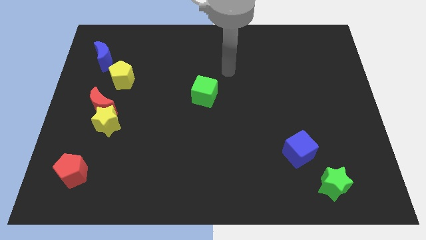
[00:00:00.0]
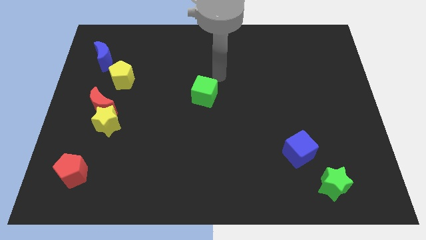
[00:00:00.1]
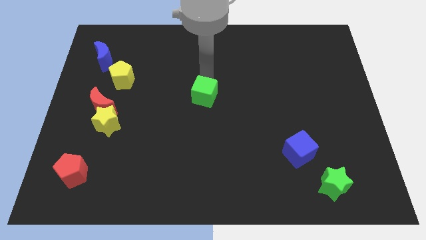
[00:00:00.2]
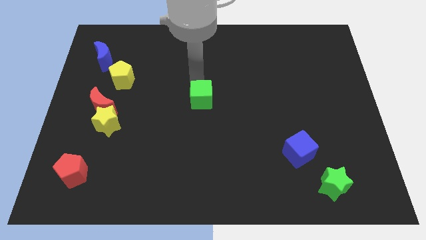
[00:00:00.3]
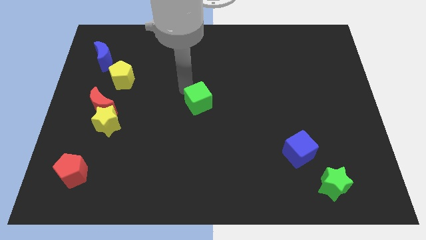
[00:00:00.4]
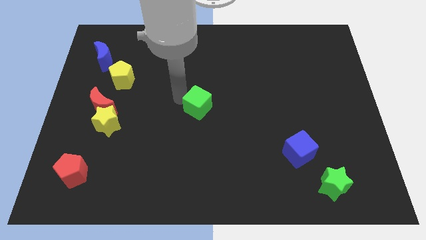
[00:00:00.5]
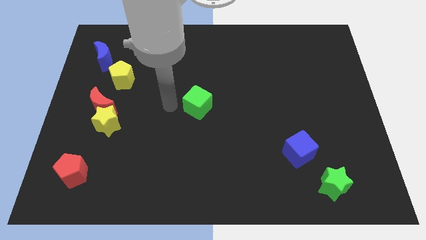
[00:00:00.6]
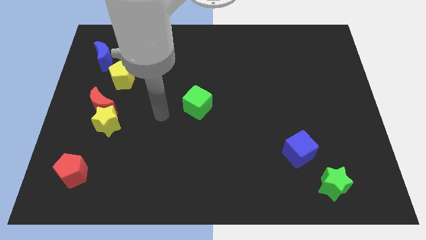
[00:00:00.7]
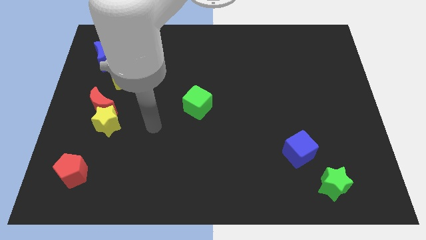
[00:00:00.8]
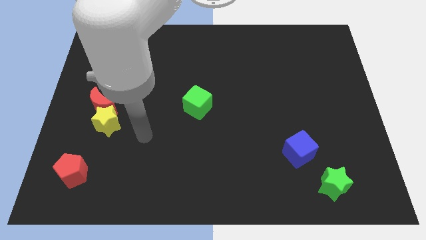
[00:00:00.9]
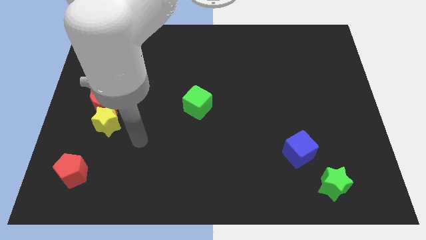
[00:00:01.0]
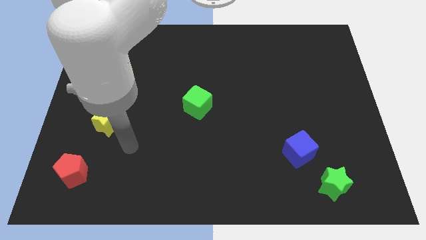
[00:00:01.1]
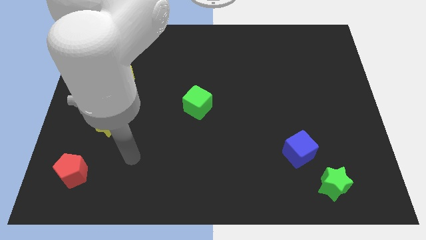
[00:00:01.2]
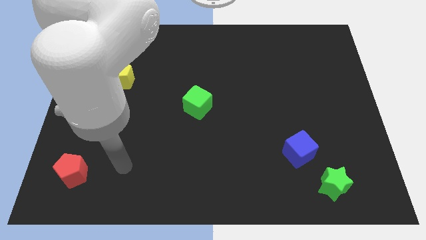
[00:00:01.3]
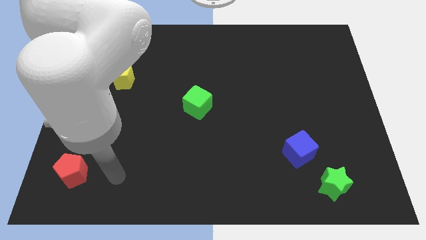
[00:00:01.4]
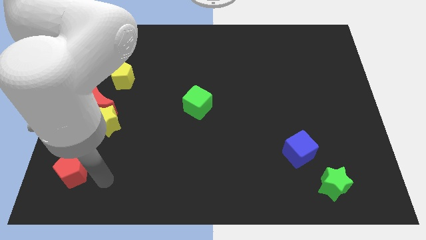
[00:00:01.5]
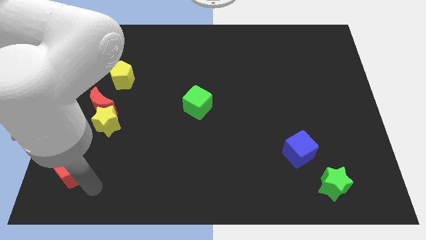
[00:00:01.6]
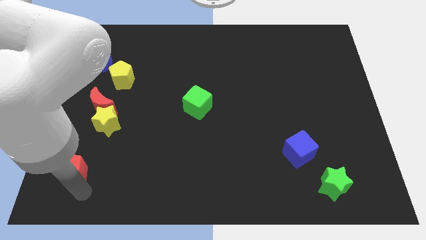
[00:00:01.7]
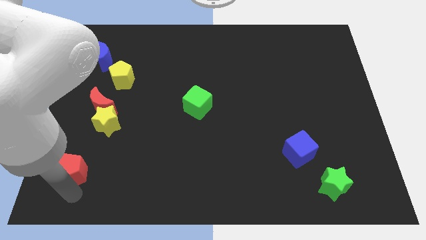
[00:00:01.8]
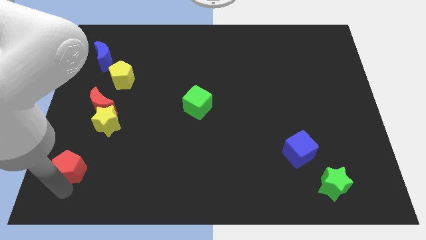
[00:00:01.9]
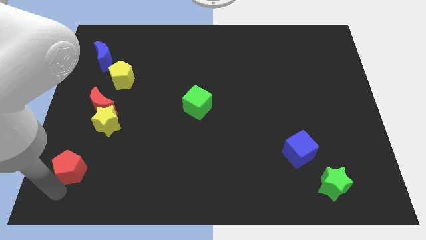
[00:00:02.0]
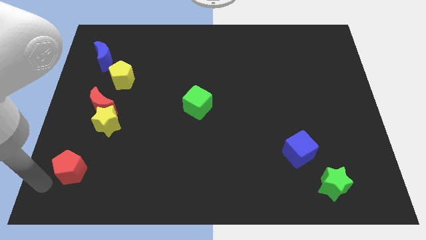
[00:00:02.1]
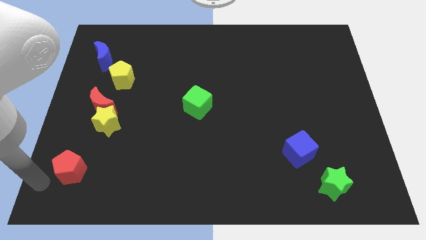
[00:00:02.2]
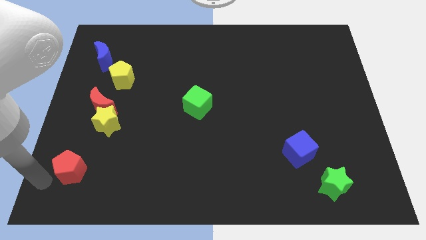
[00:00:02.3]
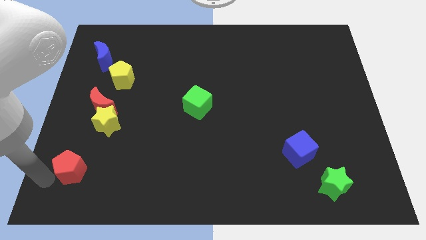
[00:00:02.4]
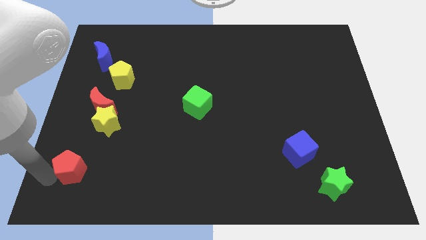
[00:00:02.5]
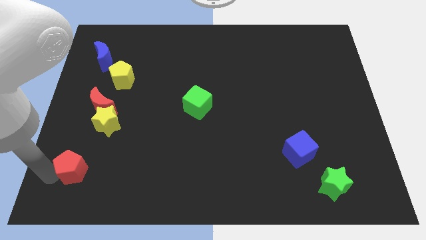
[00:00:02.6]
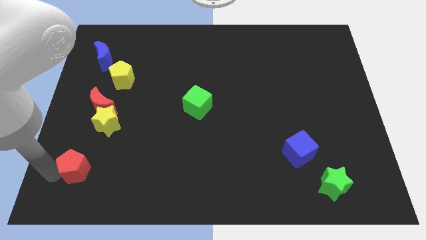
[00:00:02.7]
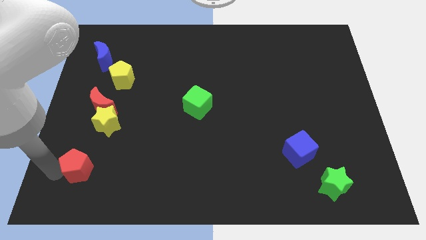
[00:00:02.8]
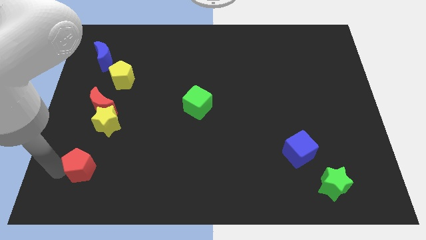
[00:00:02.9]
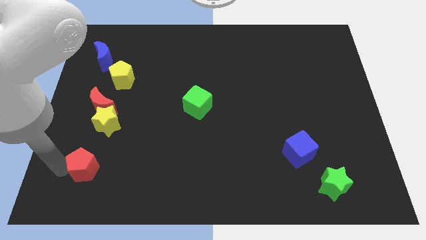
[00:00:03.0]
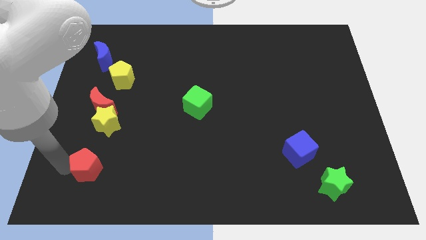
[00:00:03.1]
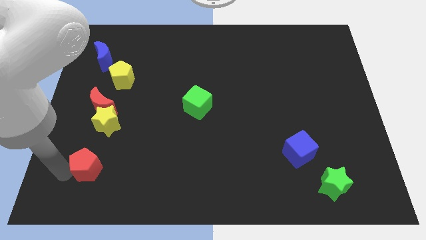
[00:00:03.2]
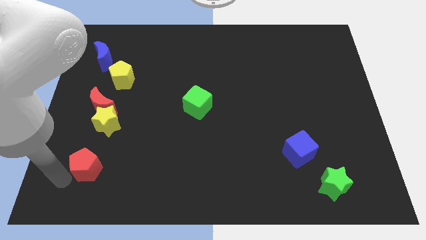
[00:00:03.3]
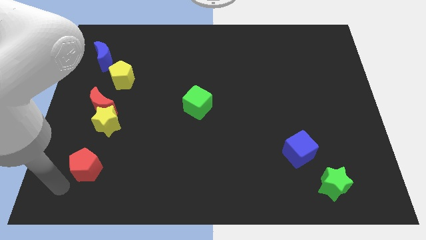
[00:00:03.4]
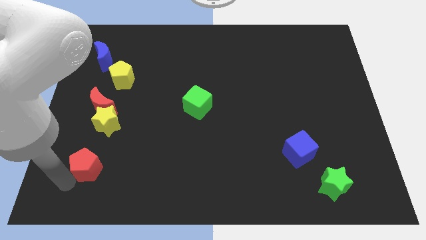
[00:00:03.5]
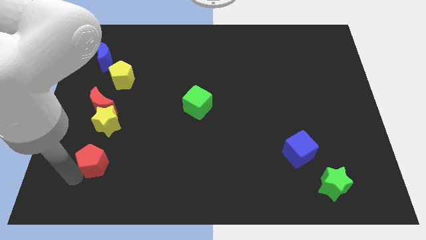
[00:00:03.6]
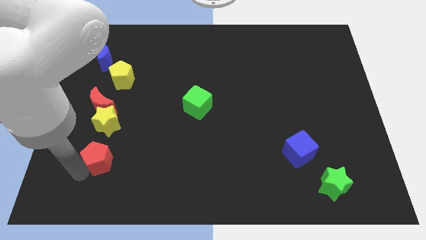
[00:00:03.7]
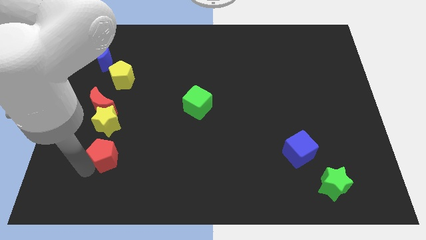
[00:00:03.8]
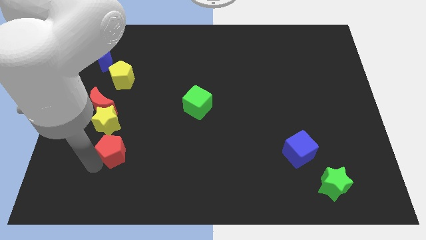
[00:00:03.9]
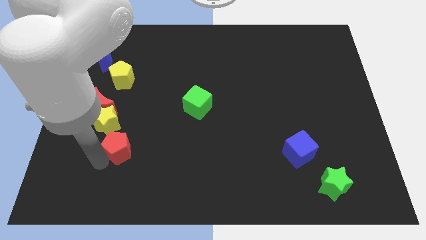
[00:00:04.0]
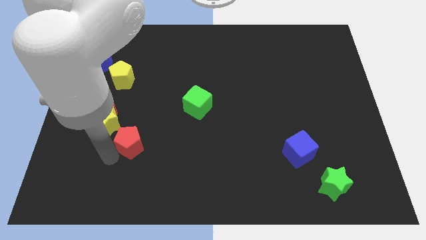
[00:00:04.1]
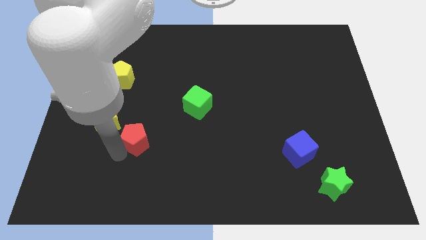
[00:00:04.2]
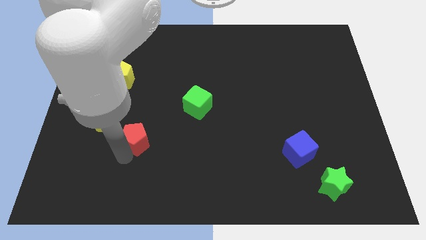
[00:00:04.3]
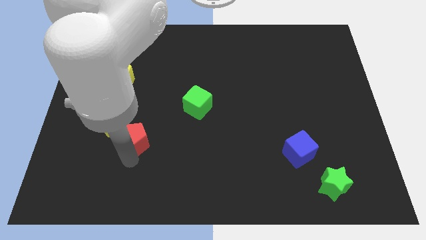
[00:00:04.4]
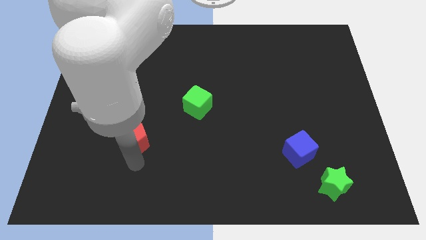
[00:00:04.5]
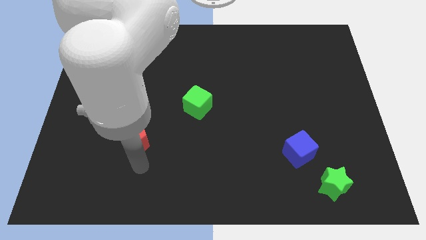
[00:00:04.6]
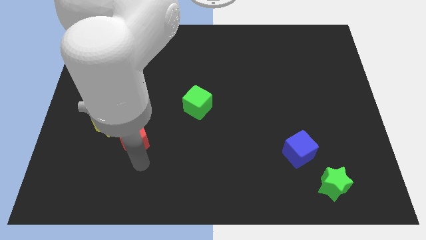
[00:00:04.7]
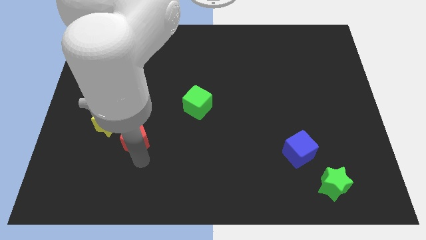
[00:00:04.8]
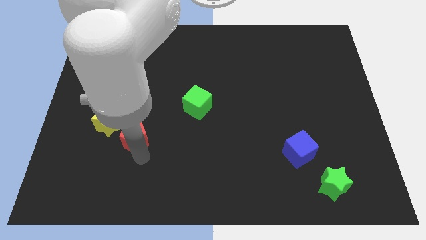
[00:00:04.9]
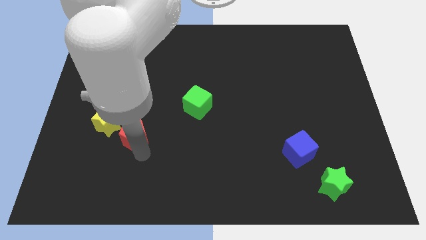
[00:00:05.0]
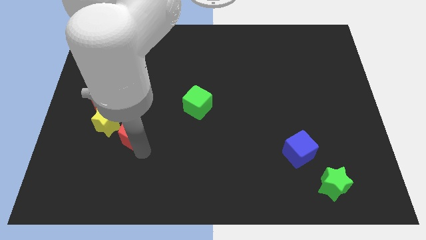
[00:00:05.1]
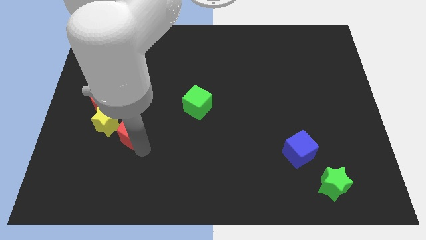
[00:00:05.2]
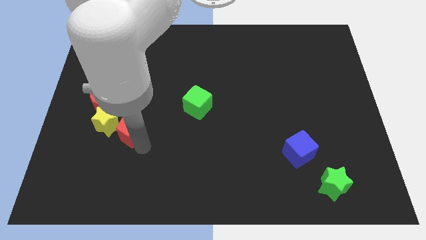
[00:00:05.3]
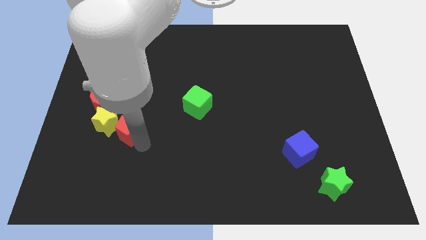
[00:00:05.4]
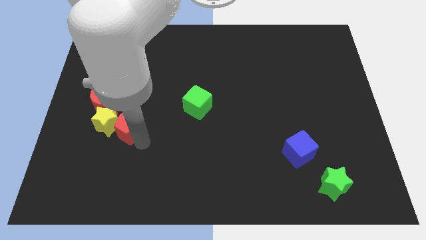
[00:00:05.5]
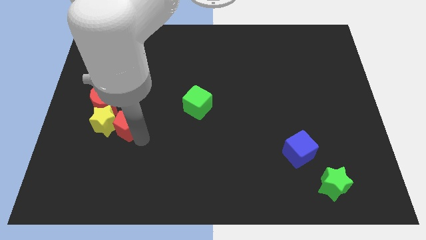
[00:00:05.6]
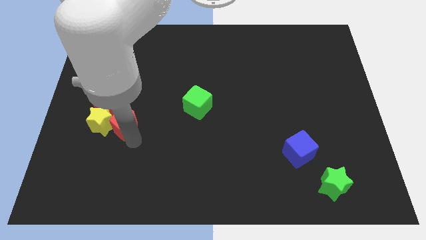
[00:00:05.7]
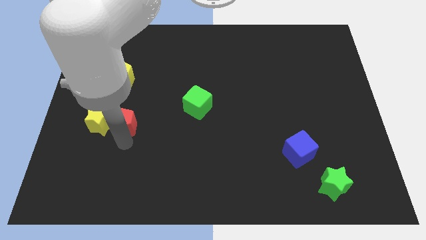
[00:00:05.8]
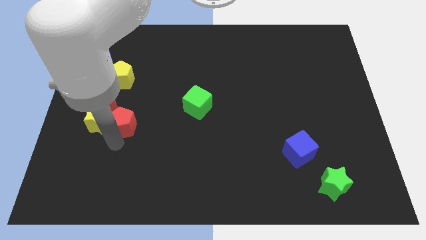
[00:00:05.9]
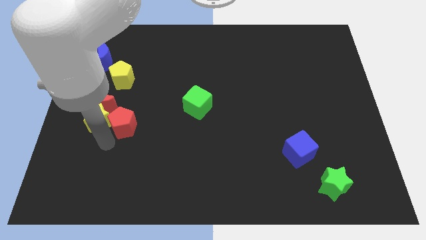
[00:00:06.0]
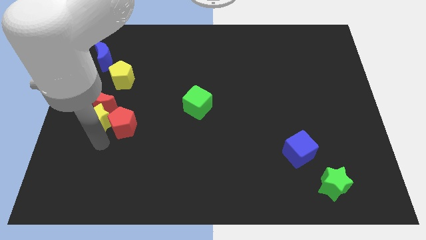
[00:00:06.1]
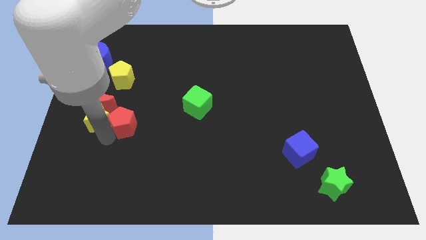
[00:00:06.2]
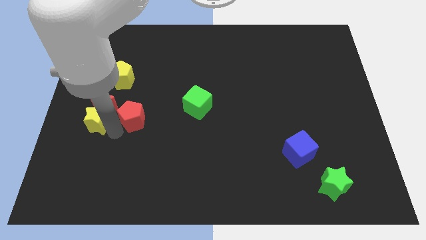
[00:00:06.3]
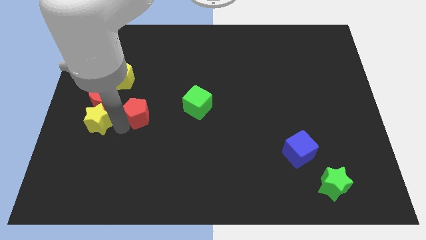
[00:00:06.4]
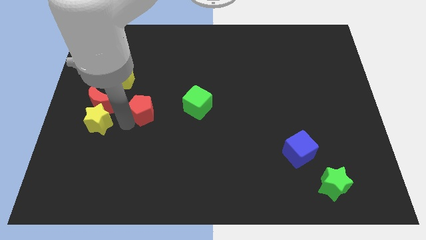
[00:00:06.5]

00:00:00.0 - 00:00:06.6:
slide the red pentagon up and right

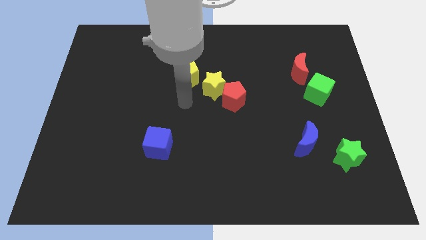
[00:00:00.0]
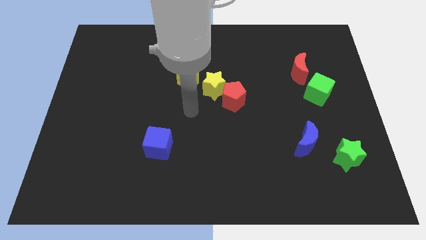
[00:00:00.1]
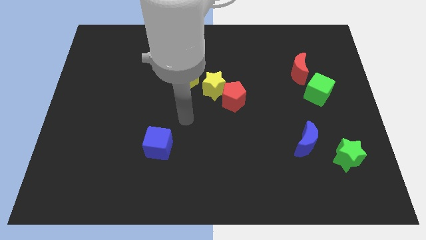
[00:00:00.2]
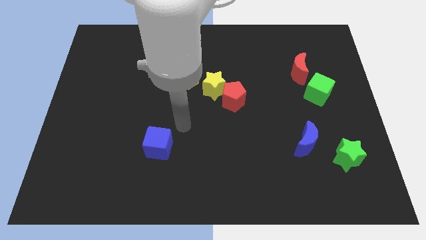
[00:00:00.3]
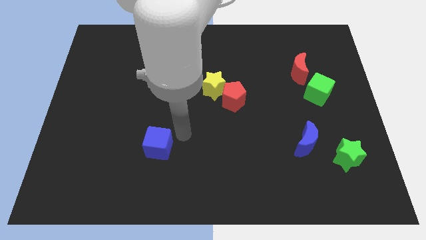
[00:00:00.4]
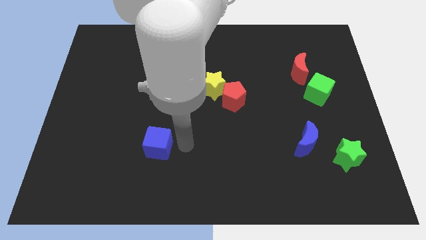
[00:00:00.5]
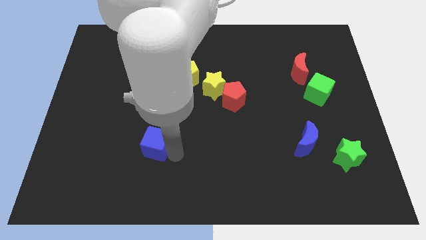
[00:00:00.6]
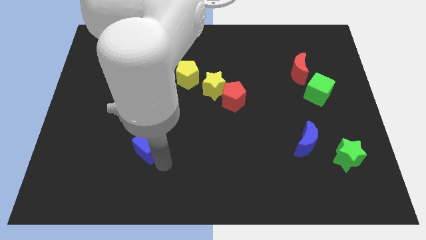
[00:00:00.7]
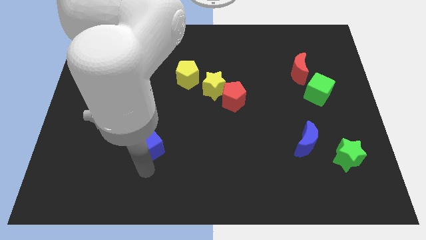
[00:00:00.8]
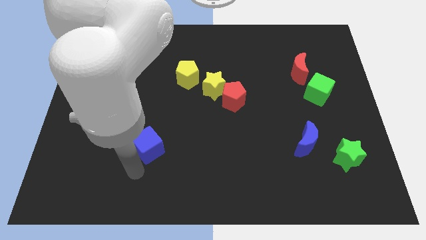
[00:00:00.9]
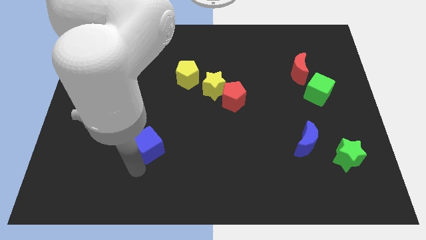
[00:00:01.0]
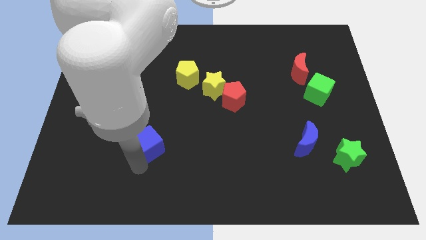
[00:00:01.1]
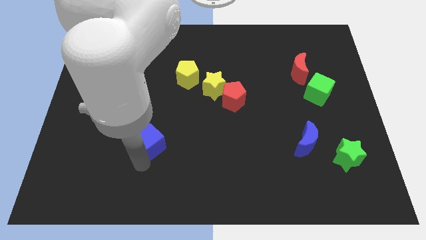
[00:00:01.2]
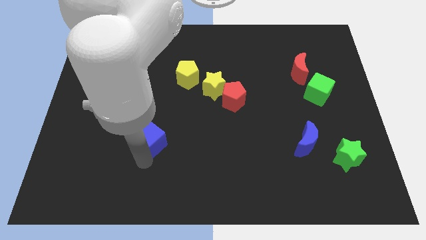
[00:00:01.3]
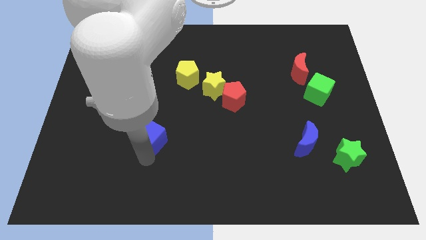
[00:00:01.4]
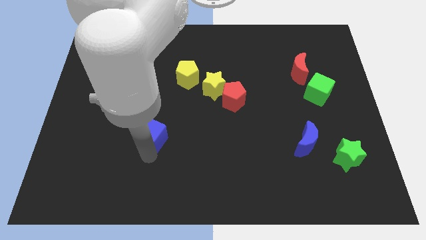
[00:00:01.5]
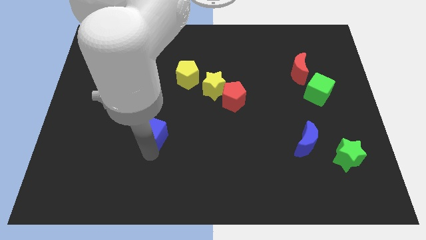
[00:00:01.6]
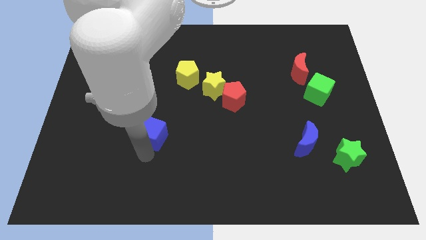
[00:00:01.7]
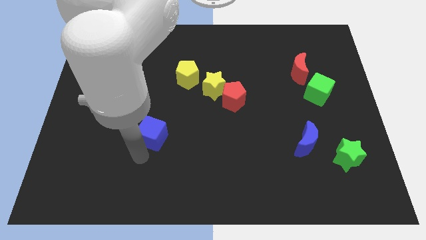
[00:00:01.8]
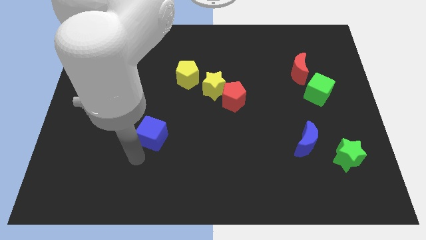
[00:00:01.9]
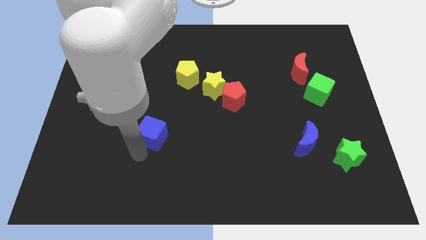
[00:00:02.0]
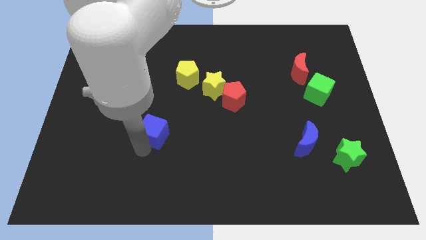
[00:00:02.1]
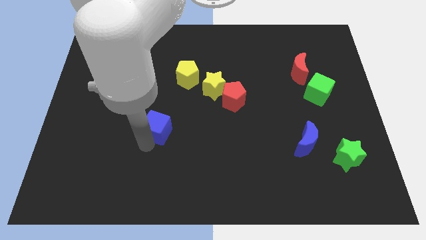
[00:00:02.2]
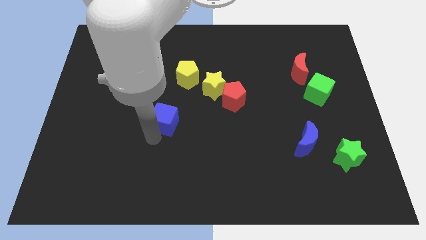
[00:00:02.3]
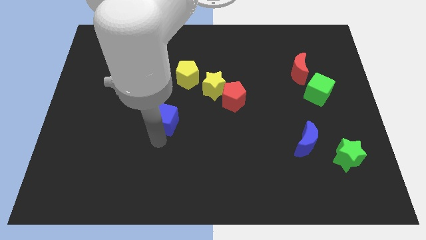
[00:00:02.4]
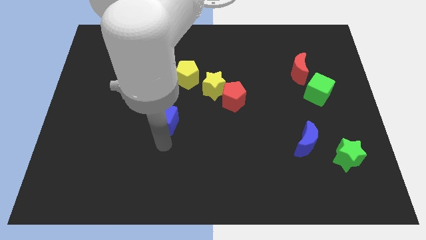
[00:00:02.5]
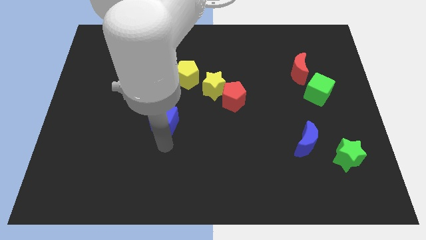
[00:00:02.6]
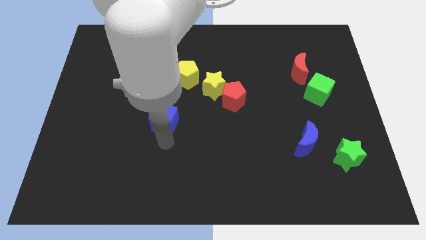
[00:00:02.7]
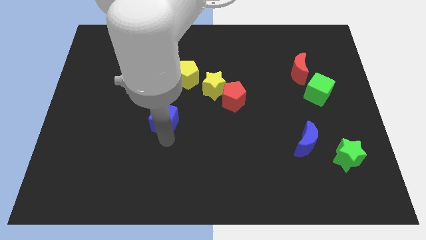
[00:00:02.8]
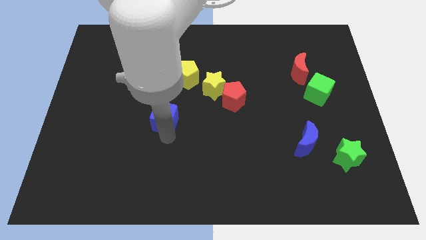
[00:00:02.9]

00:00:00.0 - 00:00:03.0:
slightly slide the blue cube up
